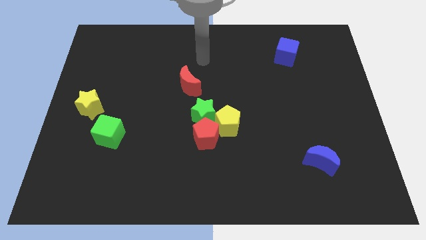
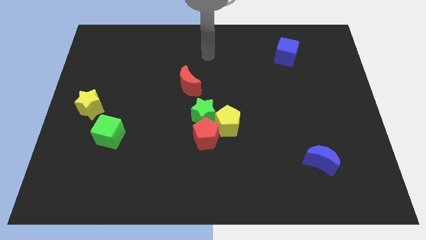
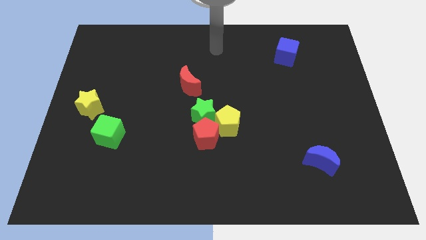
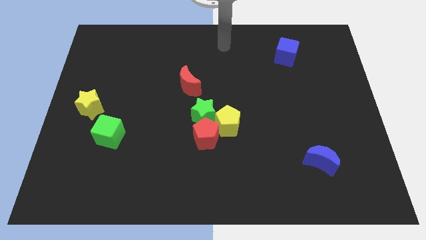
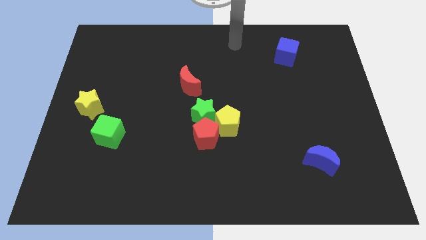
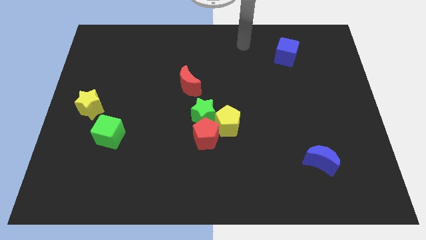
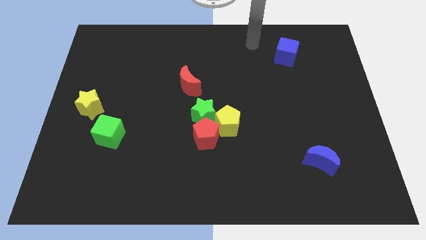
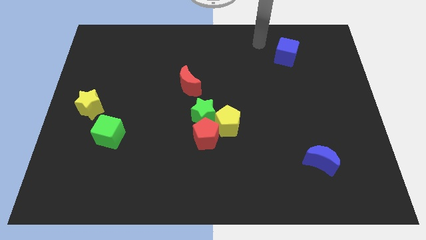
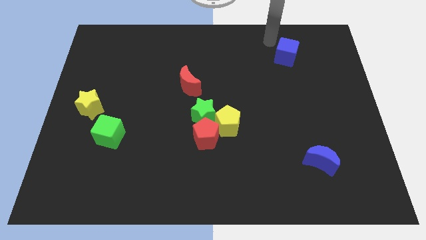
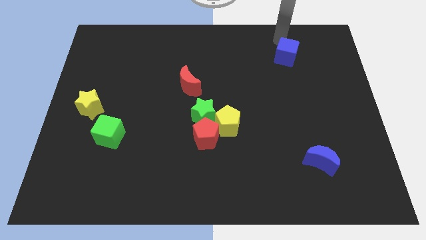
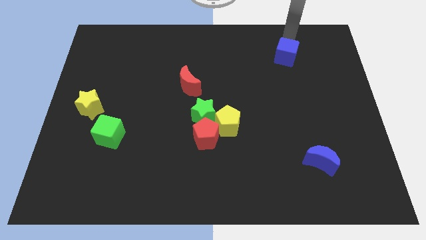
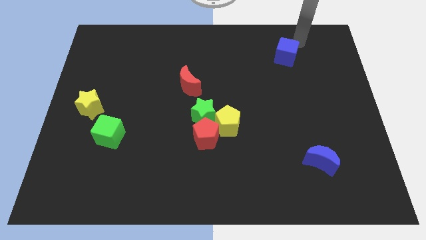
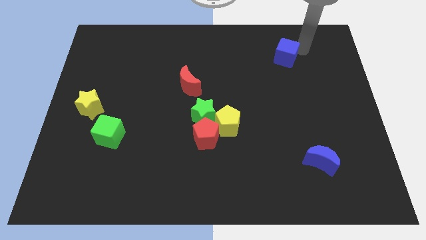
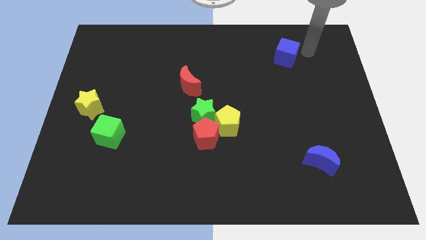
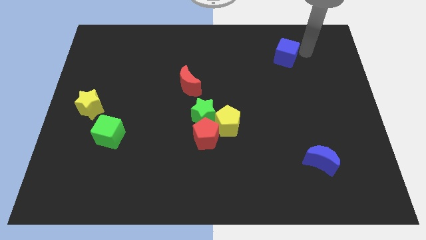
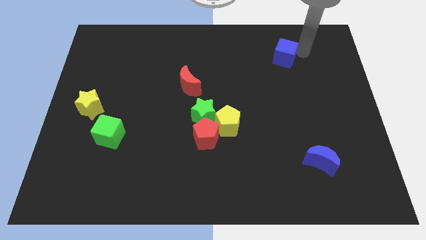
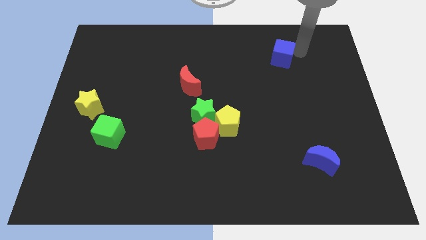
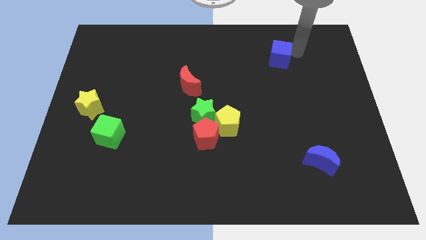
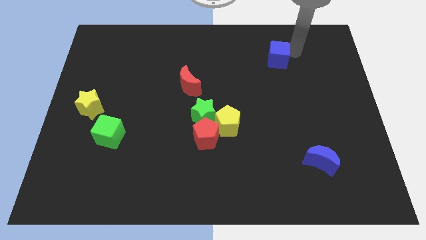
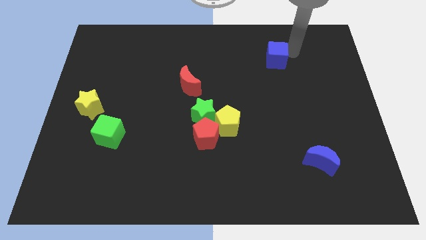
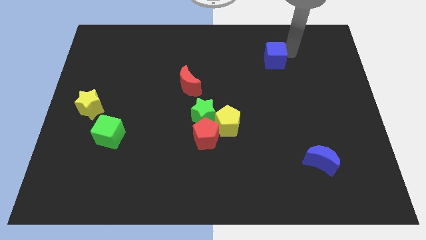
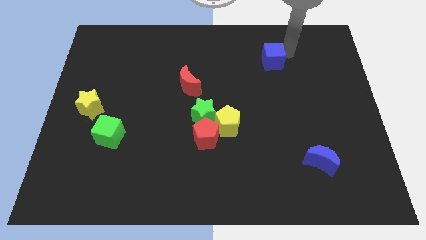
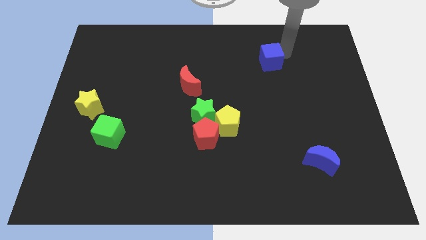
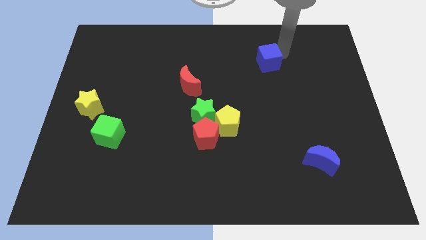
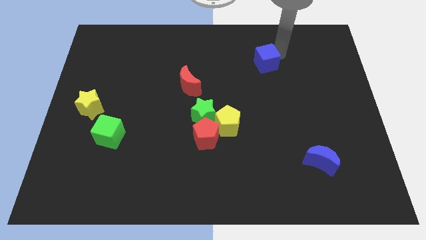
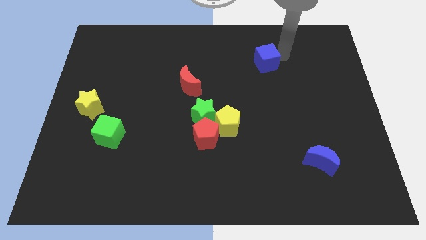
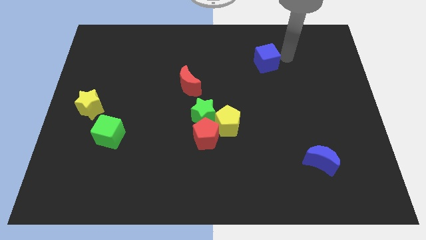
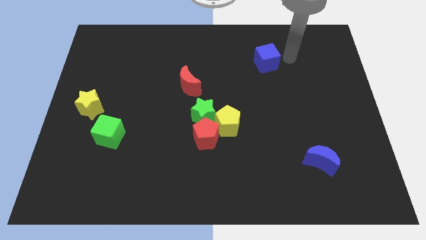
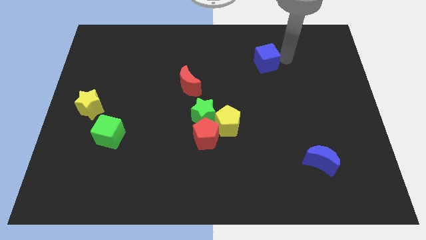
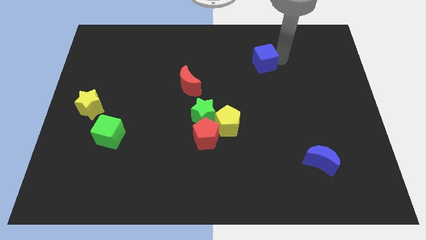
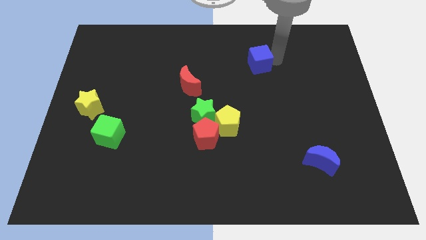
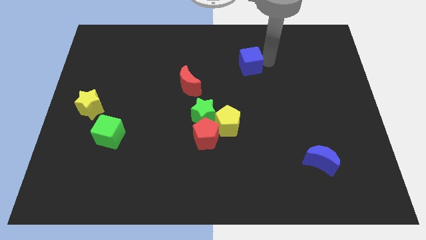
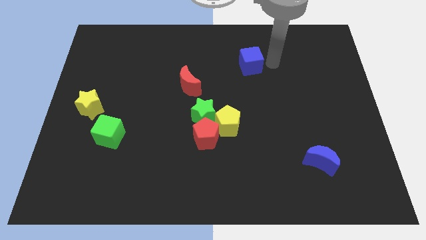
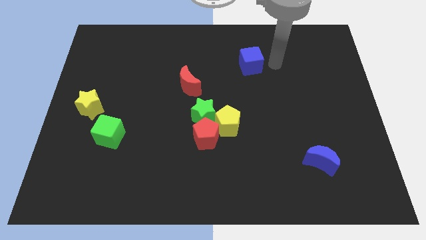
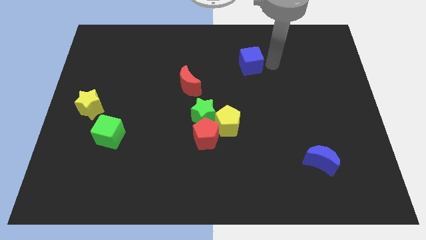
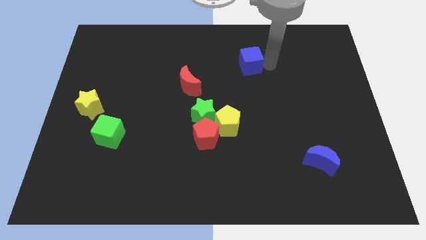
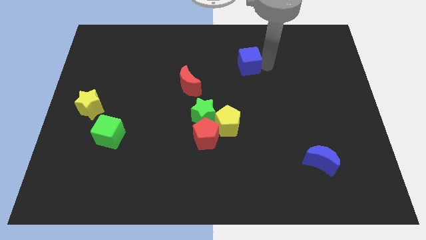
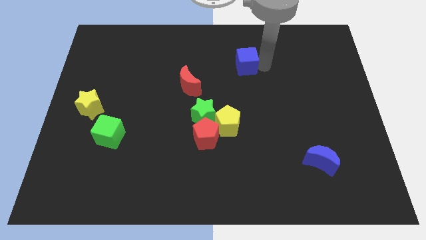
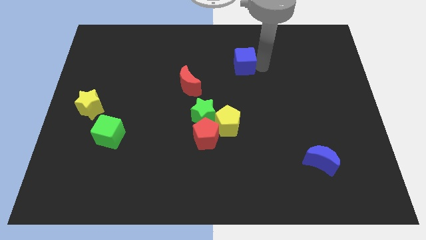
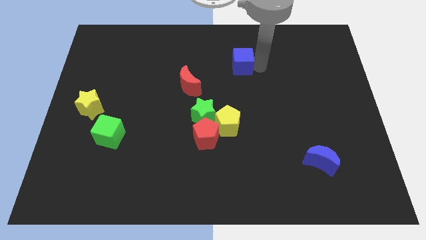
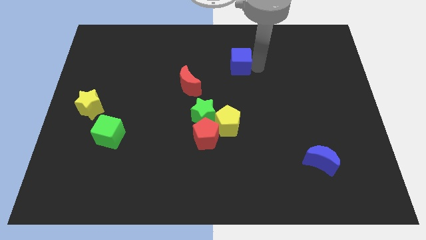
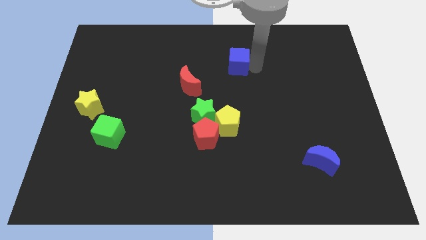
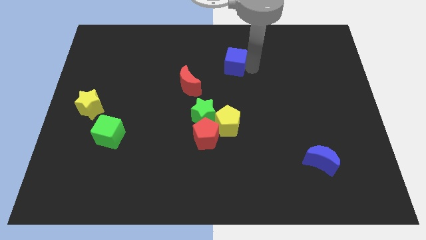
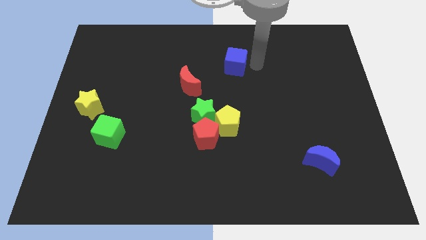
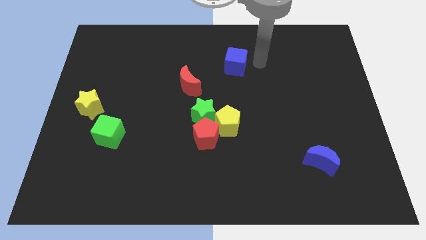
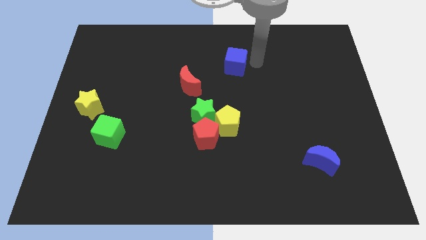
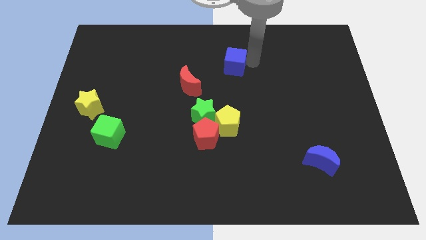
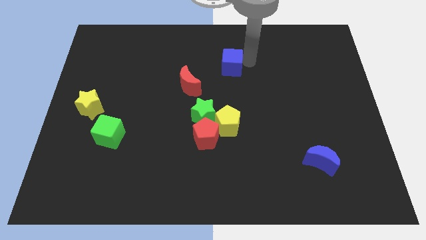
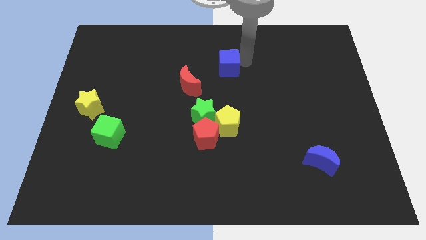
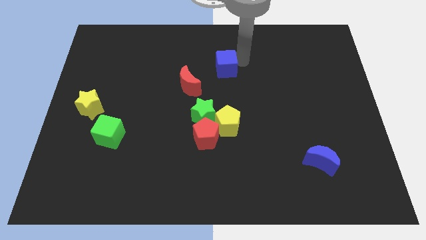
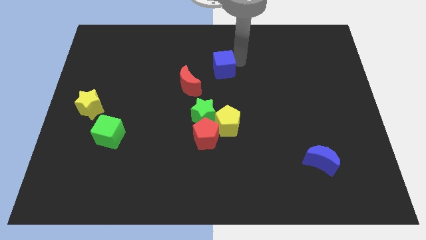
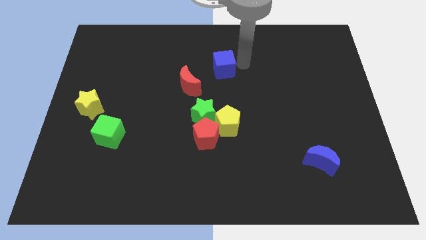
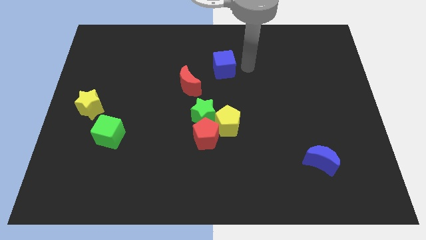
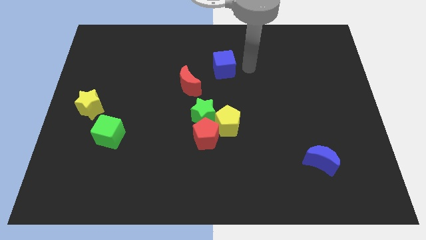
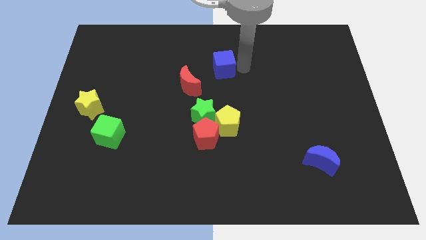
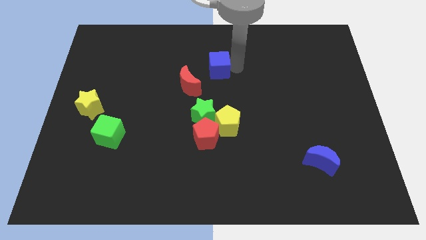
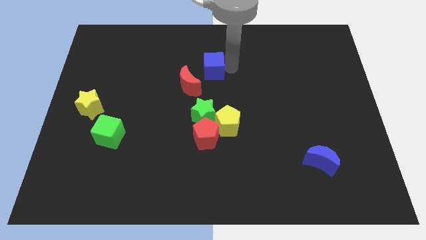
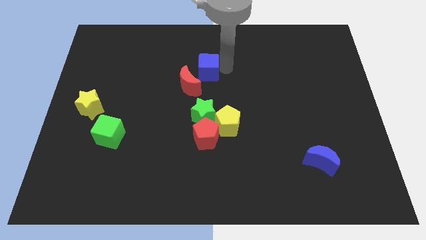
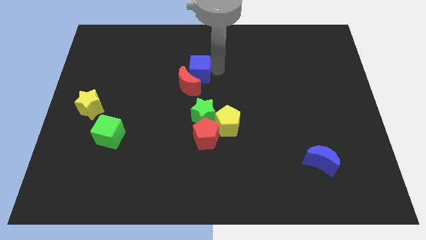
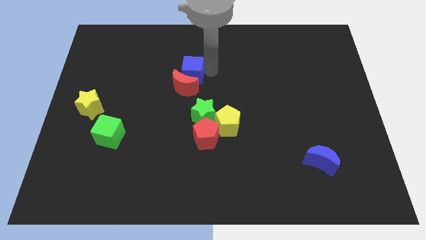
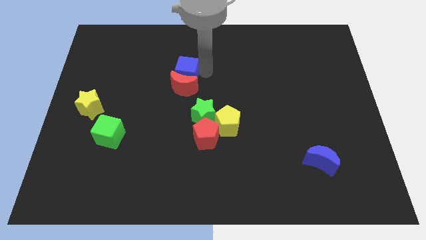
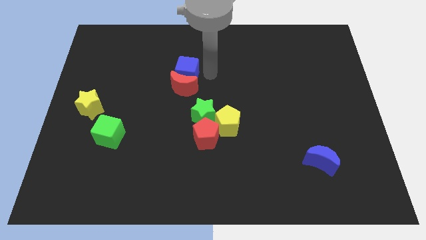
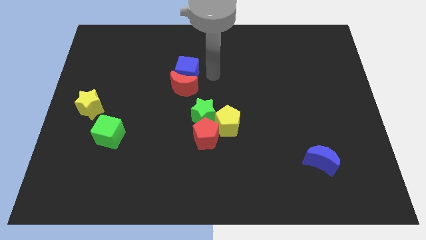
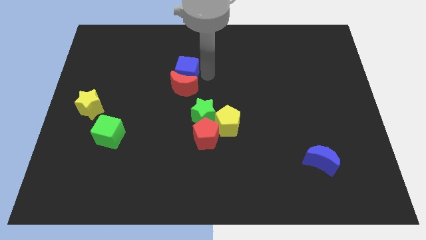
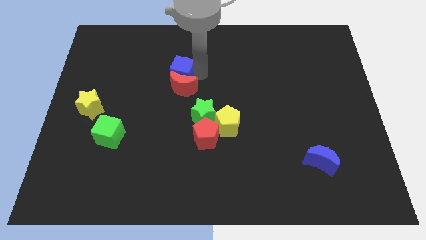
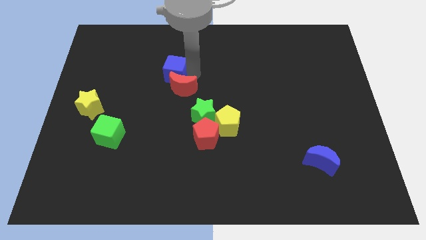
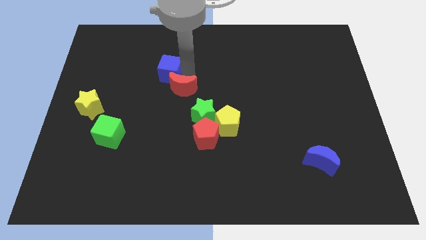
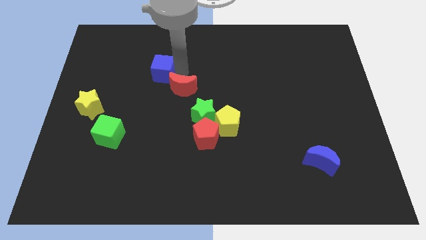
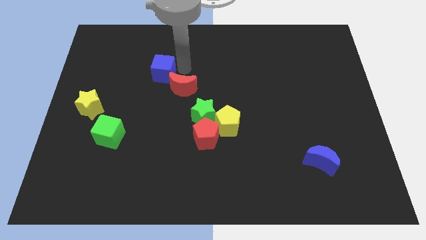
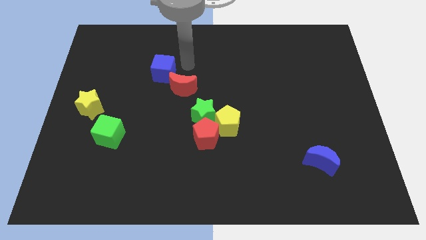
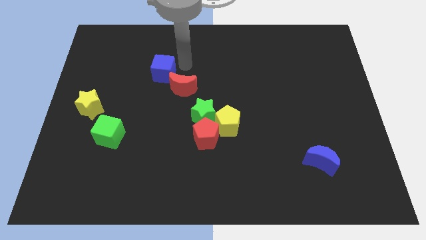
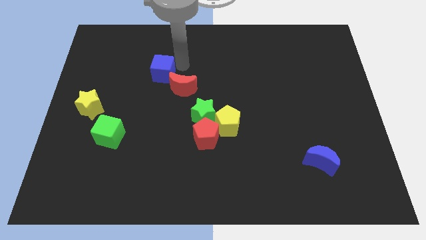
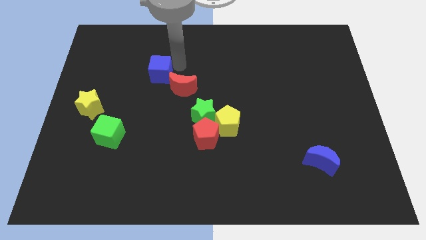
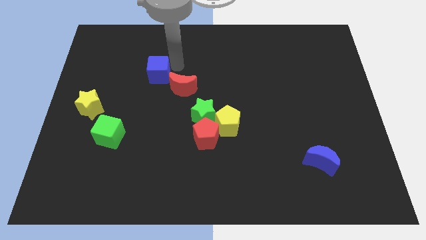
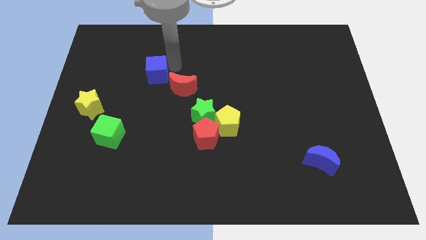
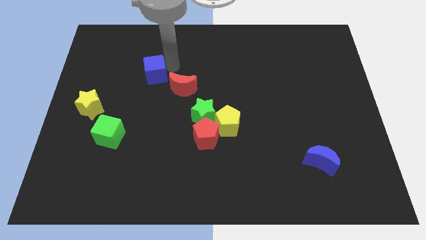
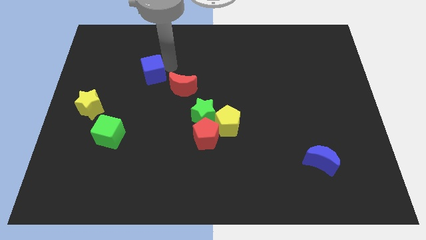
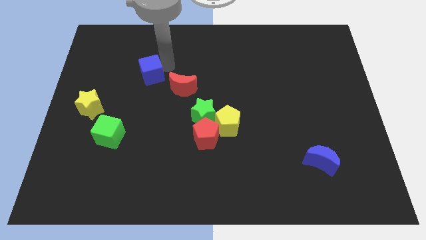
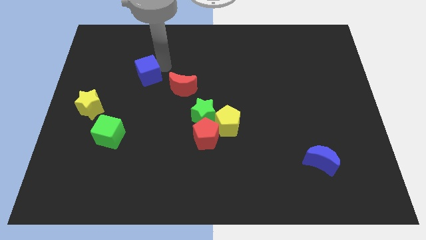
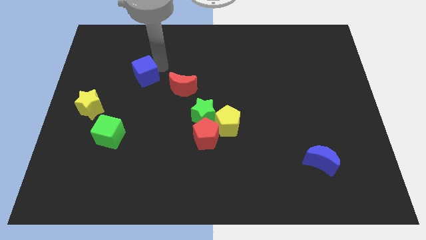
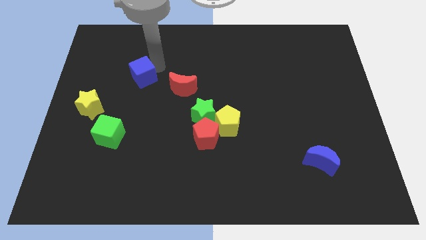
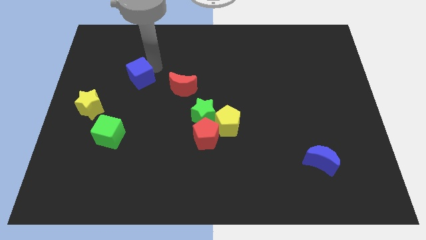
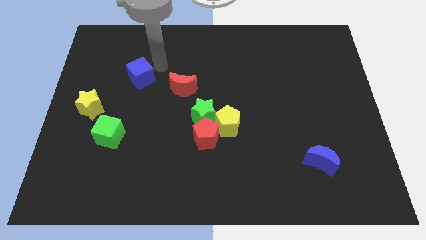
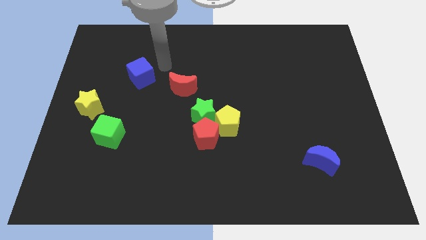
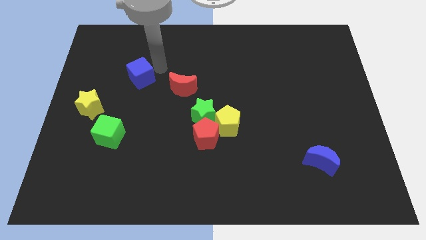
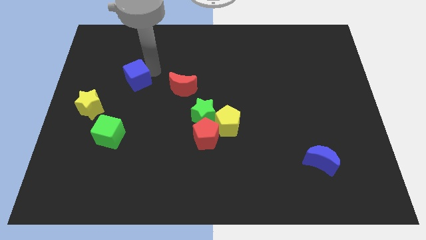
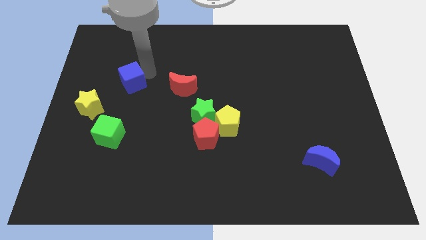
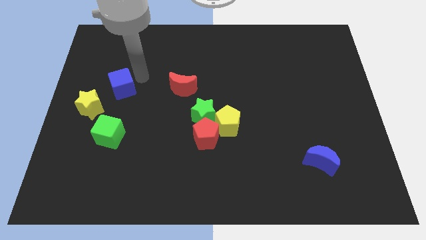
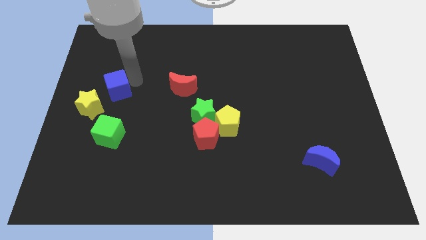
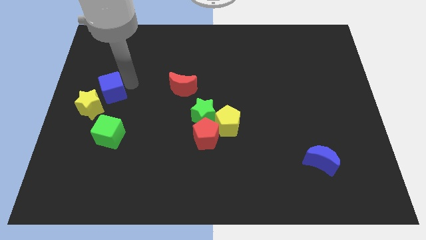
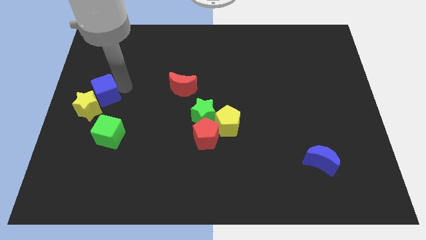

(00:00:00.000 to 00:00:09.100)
slide the blue cube to the center left
